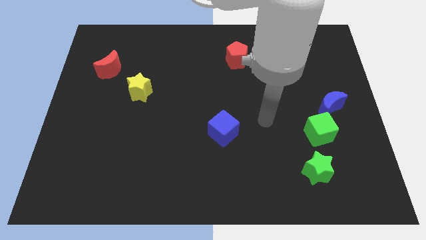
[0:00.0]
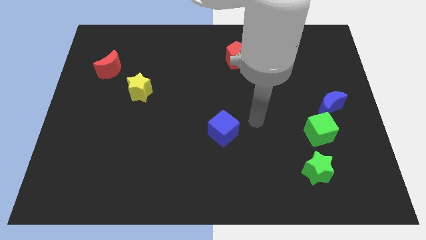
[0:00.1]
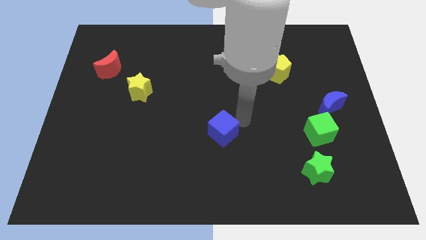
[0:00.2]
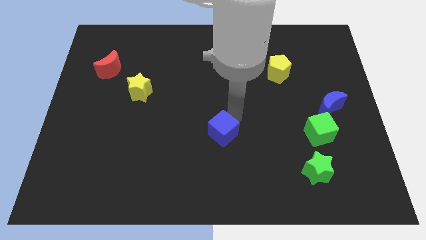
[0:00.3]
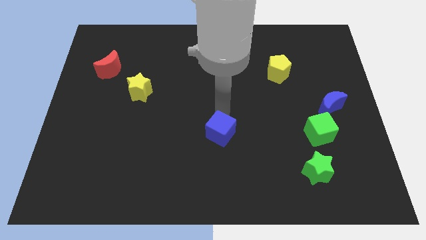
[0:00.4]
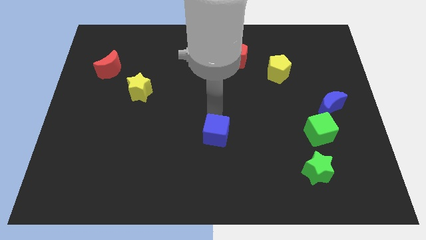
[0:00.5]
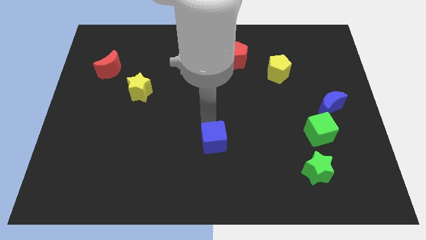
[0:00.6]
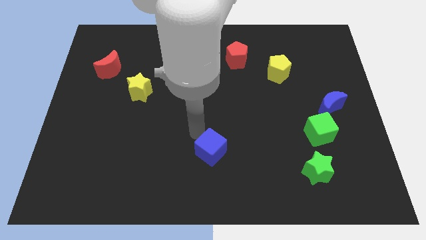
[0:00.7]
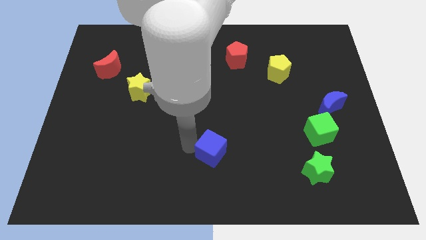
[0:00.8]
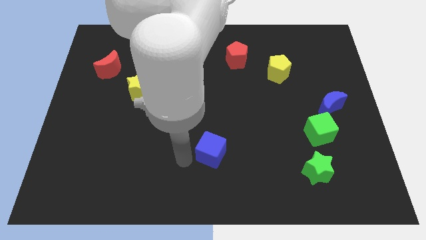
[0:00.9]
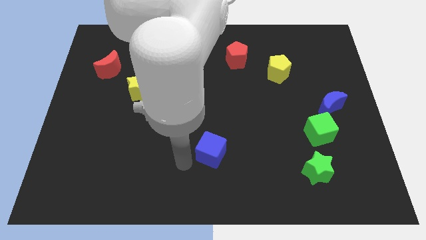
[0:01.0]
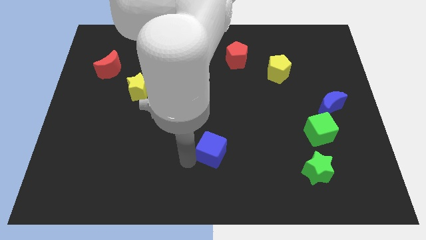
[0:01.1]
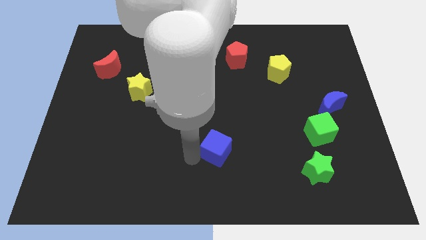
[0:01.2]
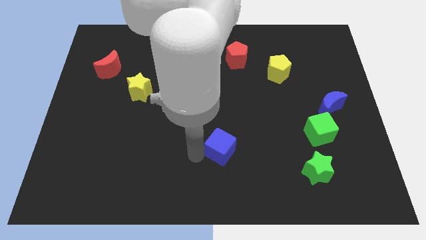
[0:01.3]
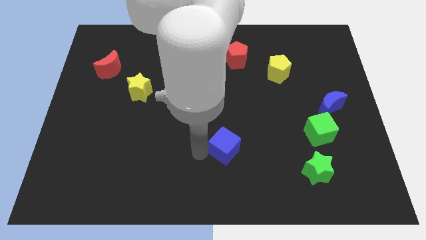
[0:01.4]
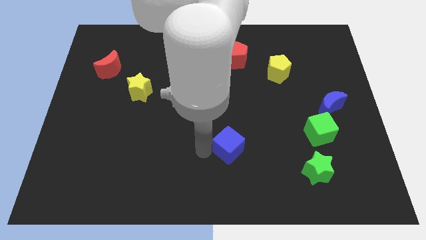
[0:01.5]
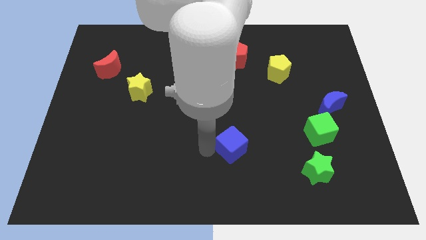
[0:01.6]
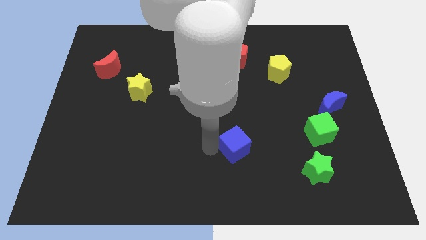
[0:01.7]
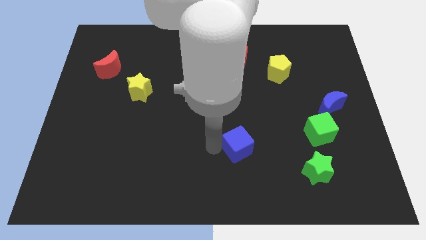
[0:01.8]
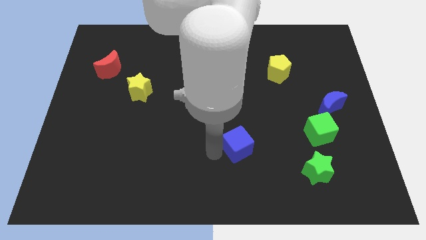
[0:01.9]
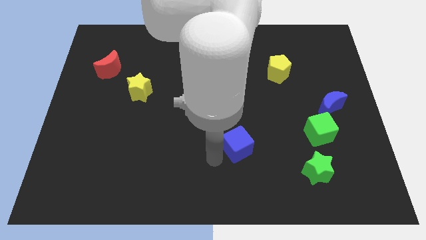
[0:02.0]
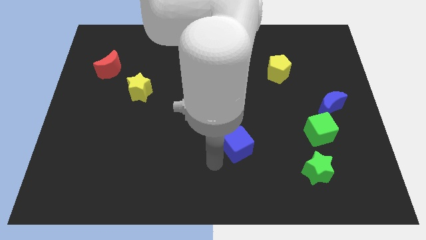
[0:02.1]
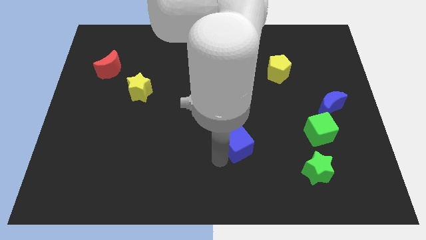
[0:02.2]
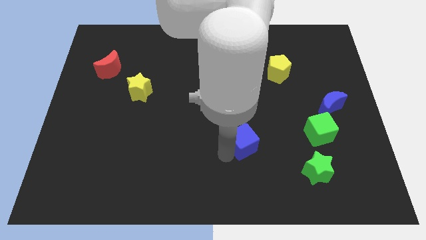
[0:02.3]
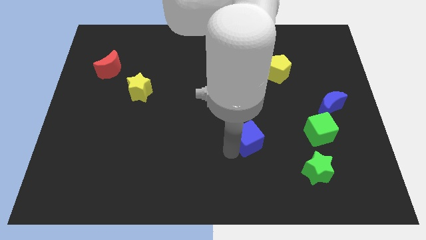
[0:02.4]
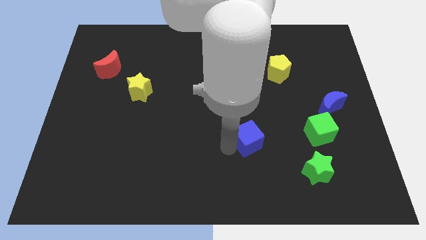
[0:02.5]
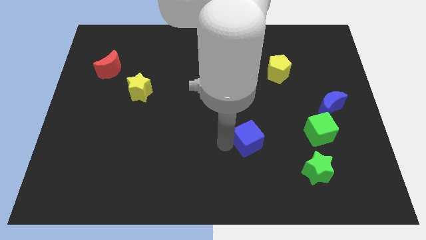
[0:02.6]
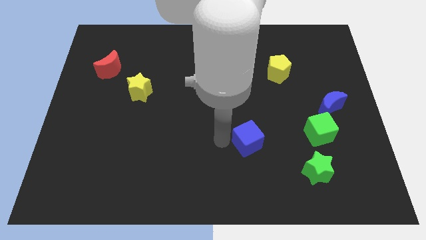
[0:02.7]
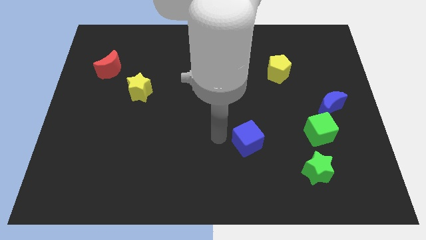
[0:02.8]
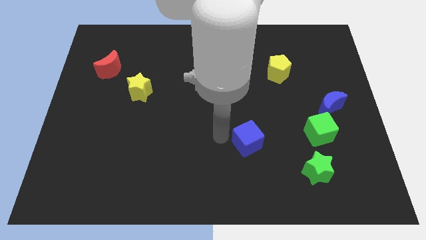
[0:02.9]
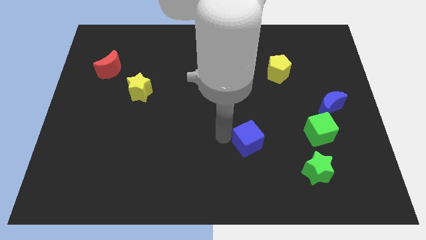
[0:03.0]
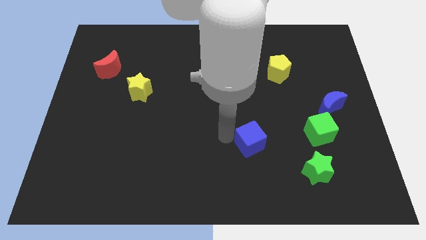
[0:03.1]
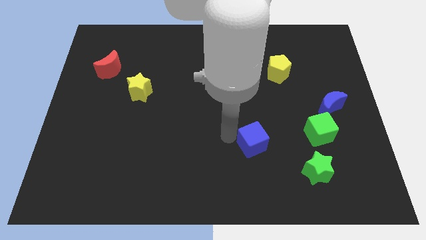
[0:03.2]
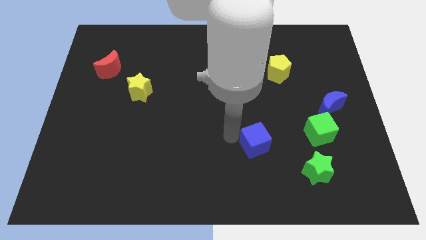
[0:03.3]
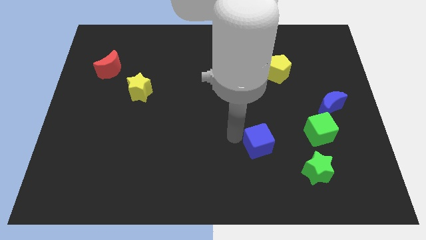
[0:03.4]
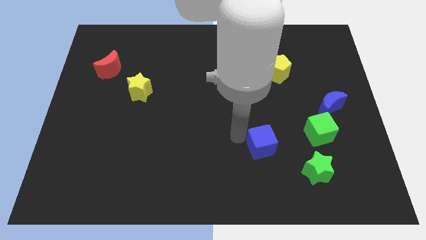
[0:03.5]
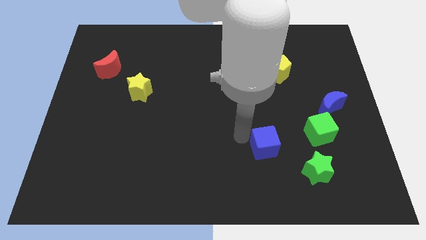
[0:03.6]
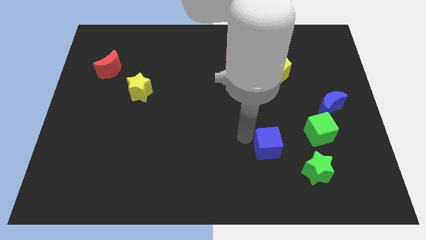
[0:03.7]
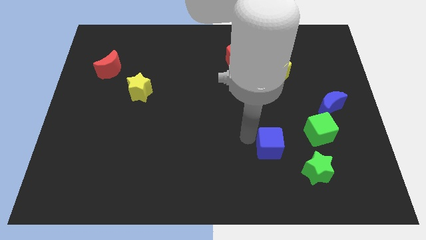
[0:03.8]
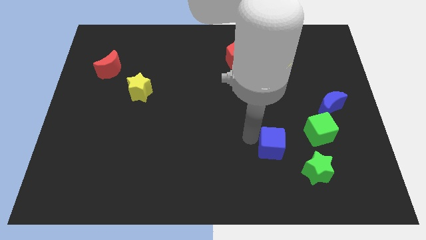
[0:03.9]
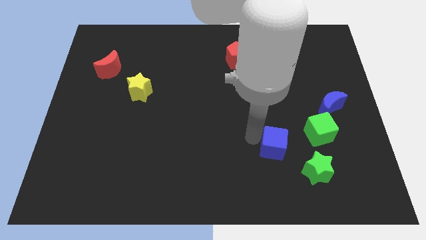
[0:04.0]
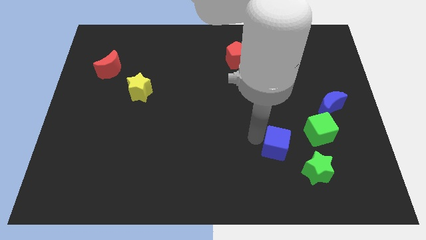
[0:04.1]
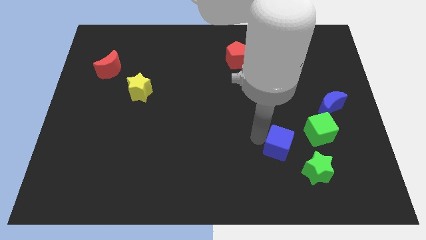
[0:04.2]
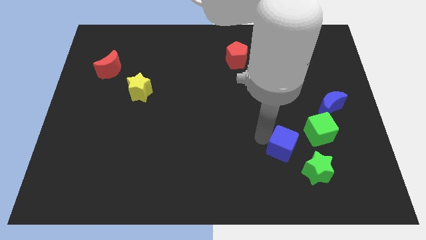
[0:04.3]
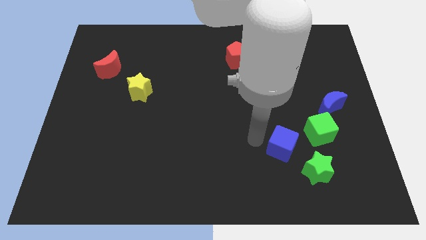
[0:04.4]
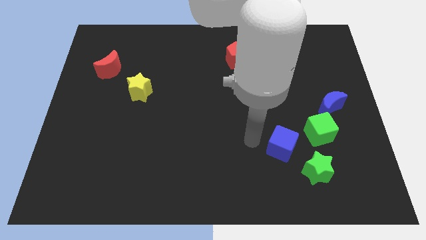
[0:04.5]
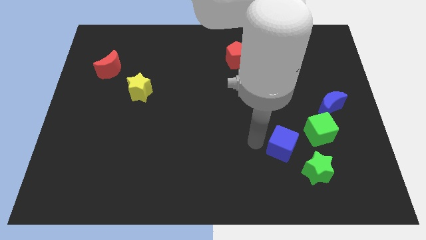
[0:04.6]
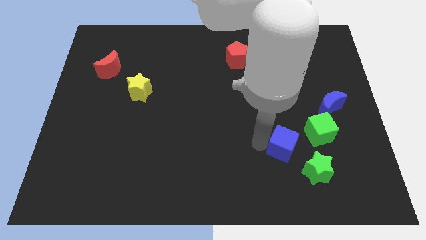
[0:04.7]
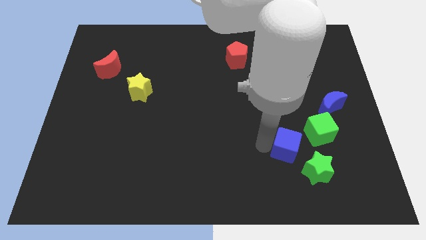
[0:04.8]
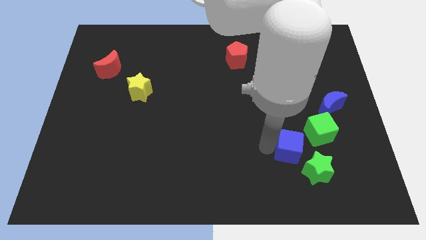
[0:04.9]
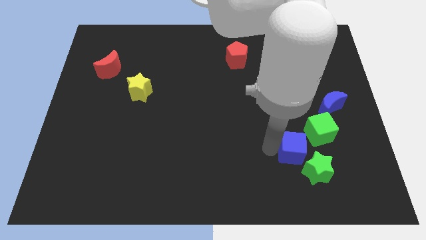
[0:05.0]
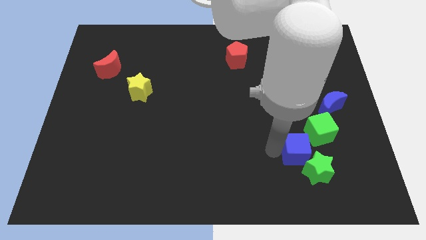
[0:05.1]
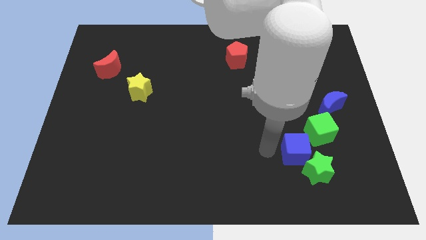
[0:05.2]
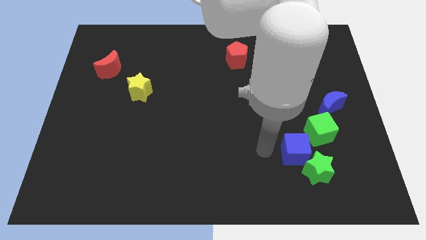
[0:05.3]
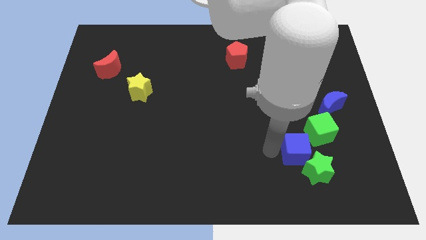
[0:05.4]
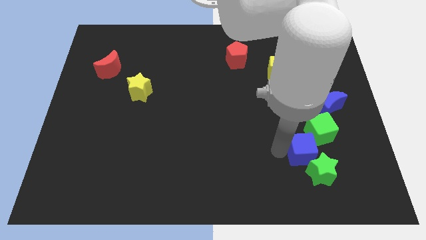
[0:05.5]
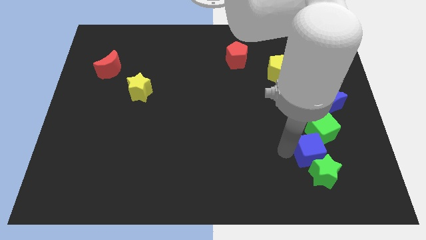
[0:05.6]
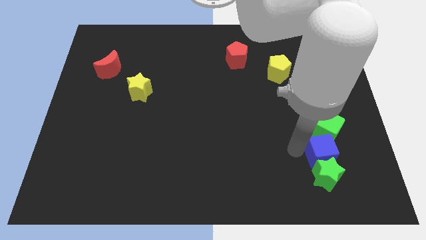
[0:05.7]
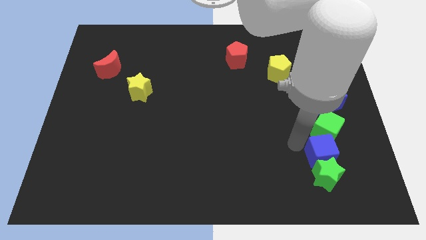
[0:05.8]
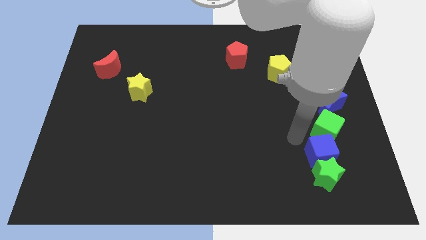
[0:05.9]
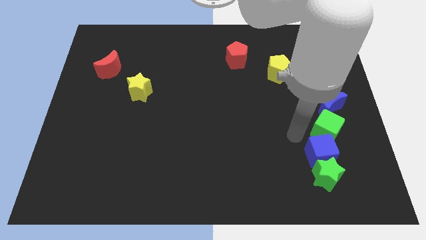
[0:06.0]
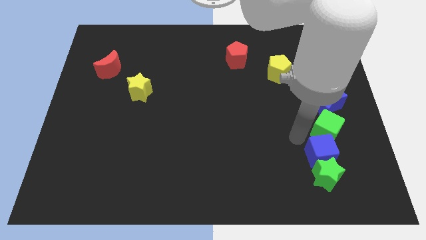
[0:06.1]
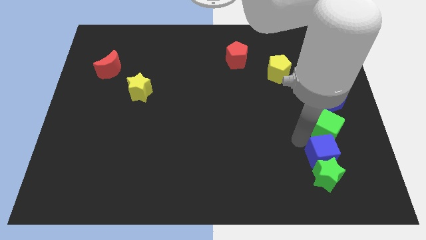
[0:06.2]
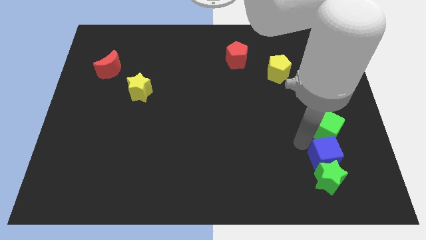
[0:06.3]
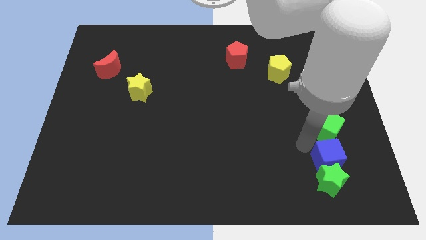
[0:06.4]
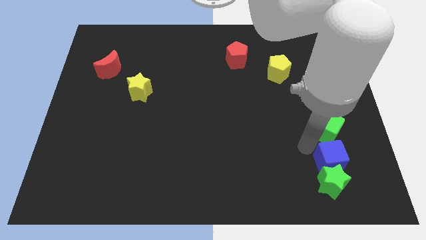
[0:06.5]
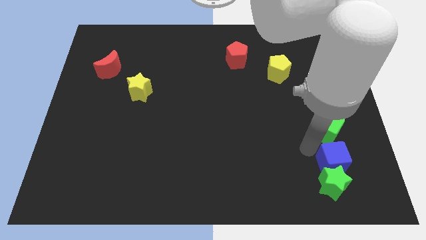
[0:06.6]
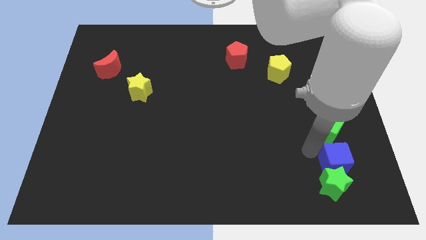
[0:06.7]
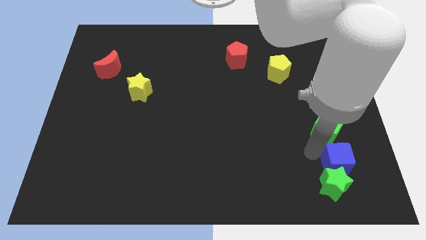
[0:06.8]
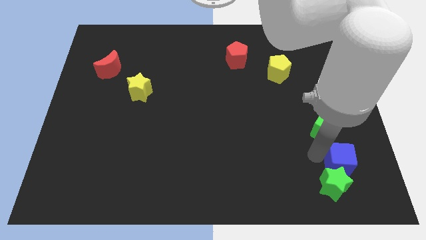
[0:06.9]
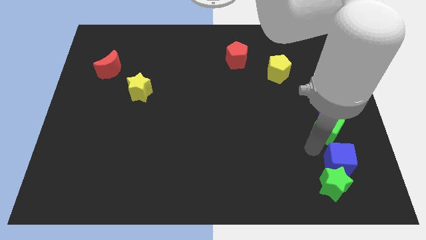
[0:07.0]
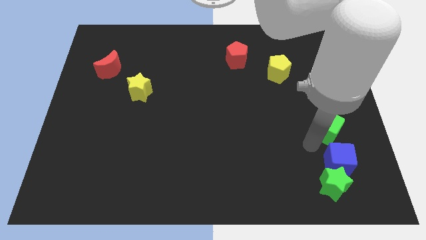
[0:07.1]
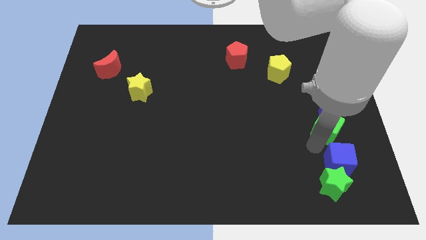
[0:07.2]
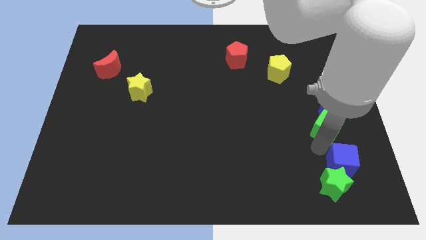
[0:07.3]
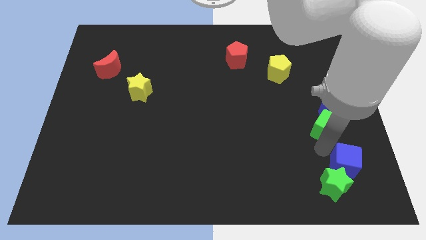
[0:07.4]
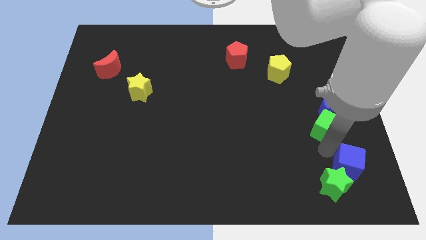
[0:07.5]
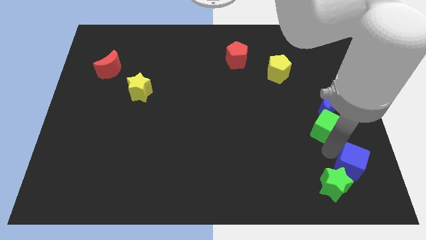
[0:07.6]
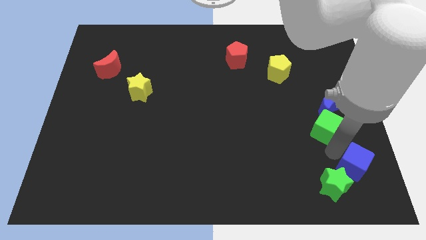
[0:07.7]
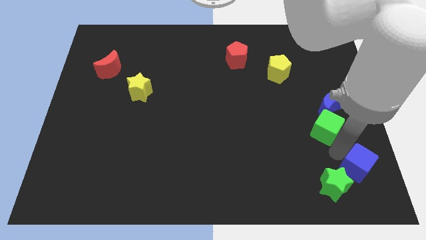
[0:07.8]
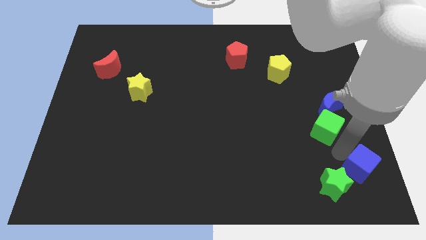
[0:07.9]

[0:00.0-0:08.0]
push the blue cube to the bottom right
